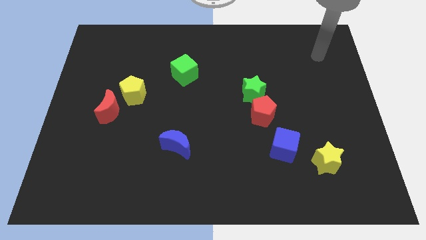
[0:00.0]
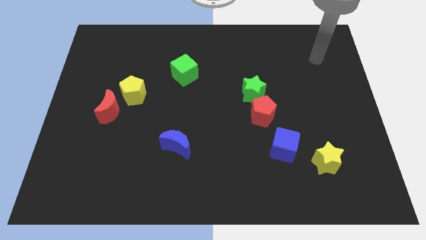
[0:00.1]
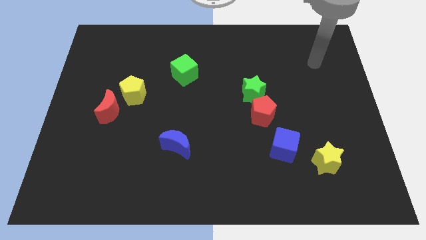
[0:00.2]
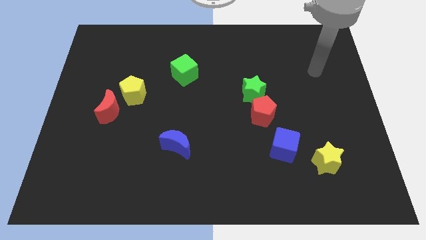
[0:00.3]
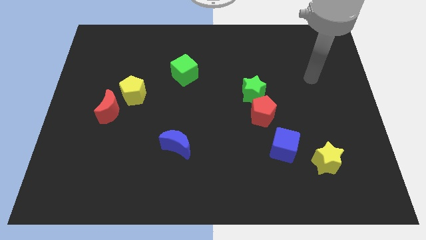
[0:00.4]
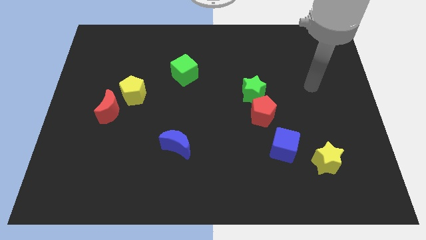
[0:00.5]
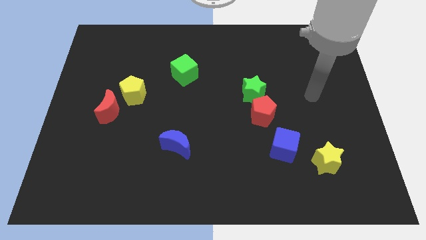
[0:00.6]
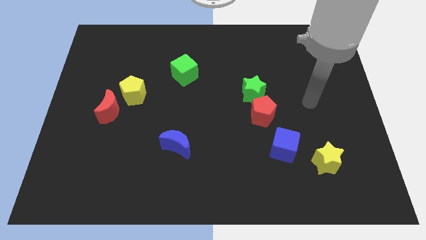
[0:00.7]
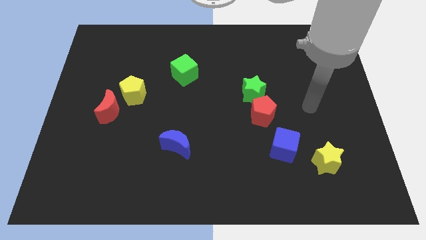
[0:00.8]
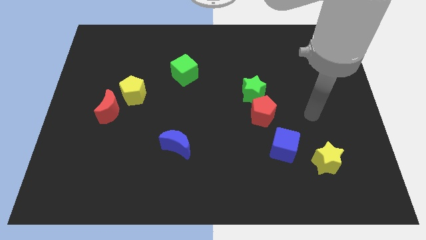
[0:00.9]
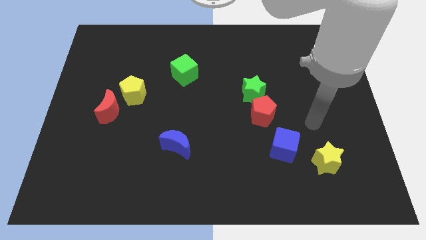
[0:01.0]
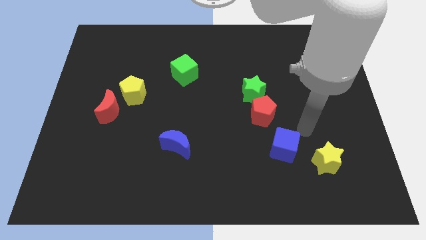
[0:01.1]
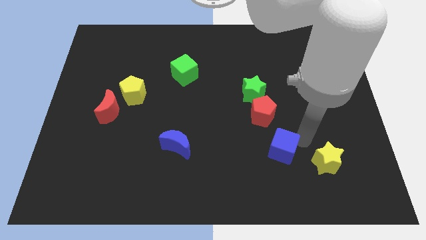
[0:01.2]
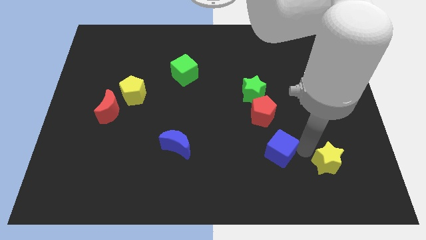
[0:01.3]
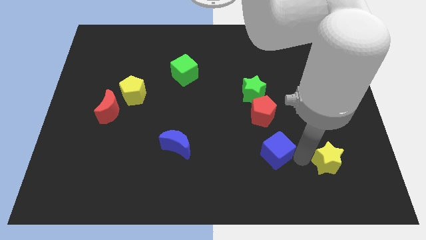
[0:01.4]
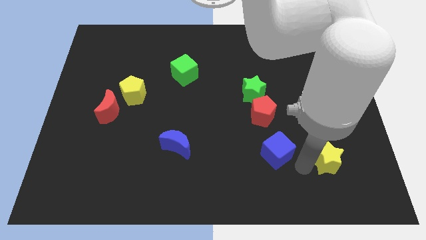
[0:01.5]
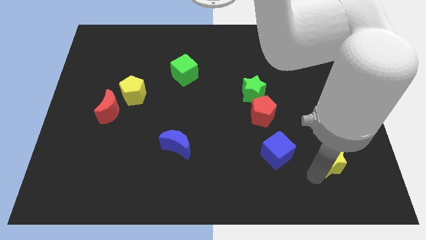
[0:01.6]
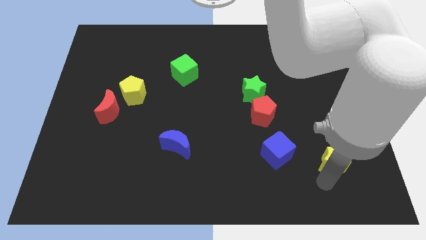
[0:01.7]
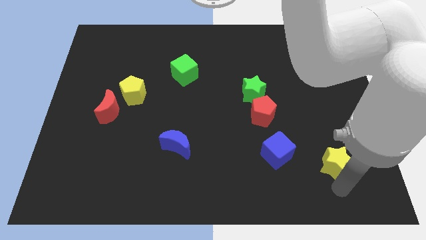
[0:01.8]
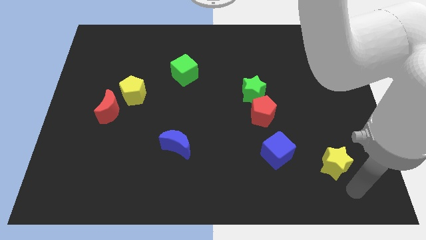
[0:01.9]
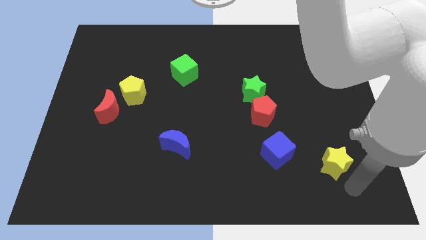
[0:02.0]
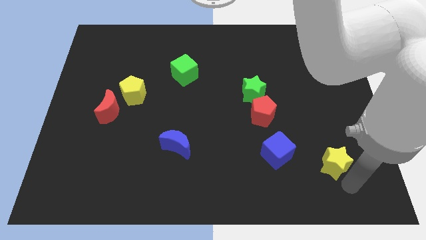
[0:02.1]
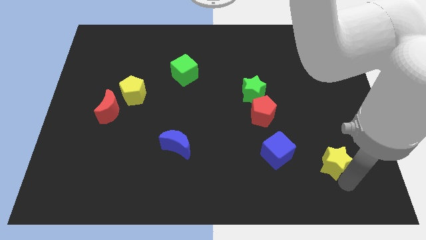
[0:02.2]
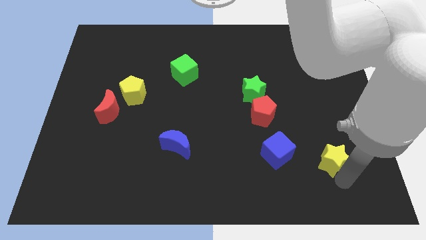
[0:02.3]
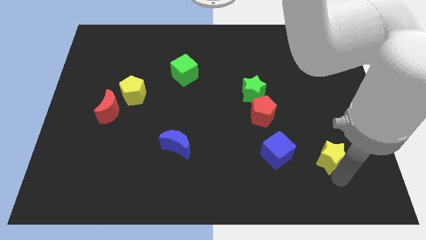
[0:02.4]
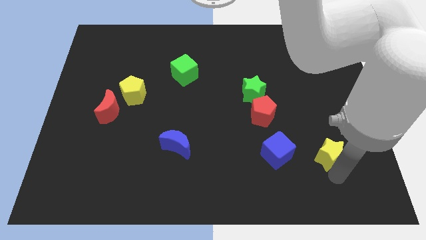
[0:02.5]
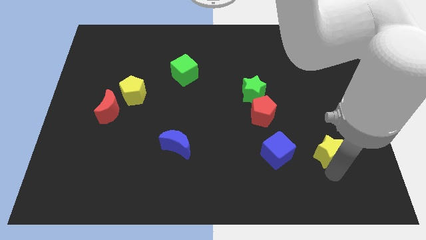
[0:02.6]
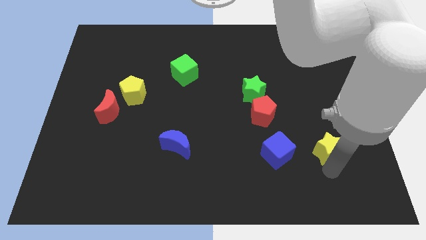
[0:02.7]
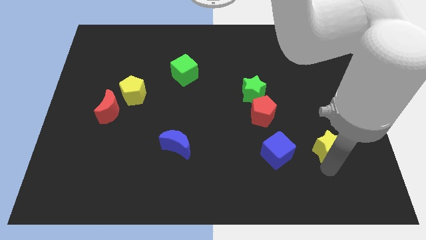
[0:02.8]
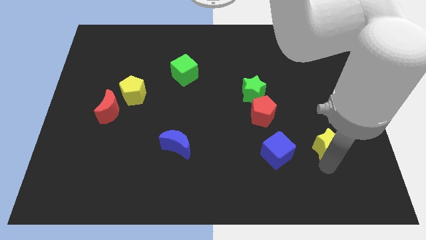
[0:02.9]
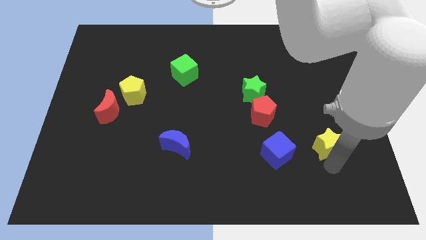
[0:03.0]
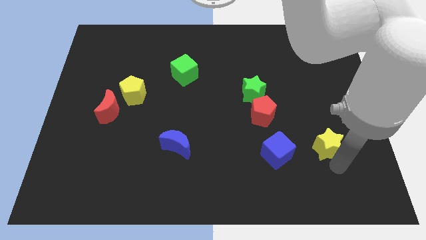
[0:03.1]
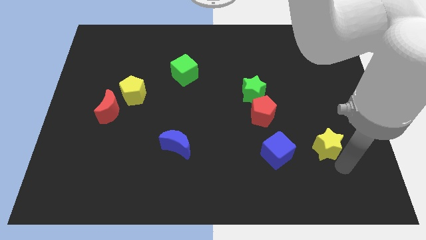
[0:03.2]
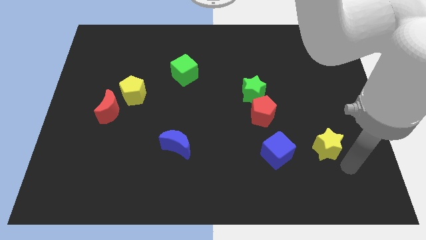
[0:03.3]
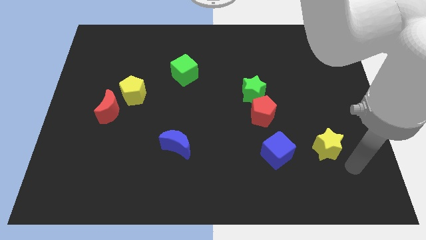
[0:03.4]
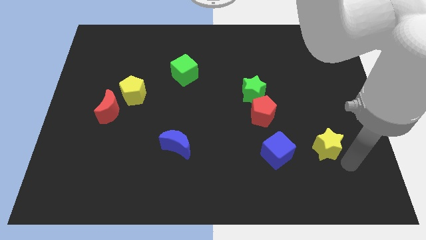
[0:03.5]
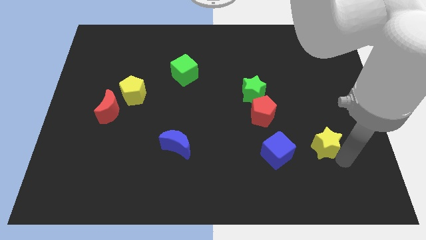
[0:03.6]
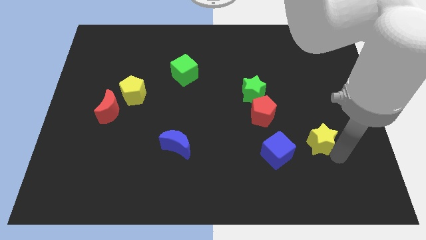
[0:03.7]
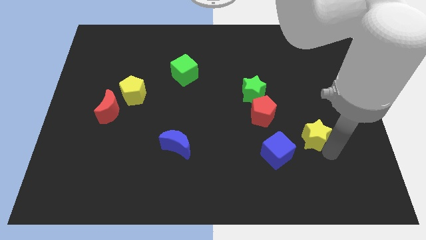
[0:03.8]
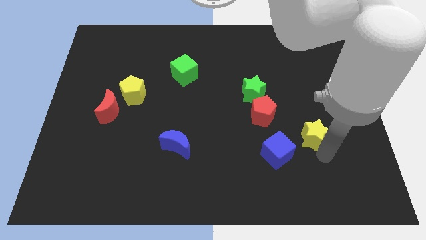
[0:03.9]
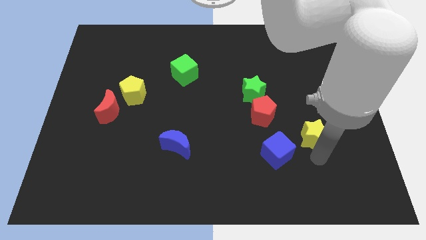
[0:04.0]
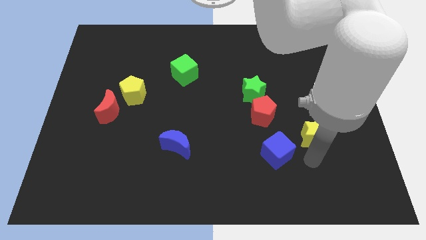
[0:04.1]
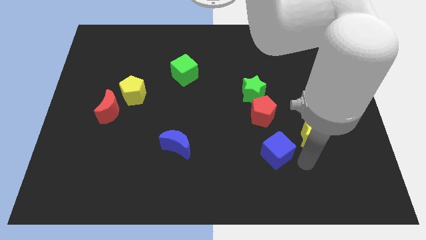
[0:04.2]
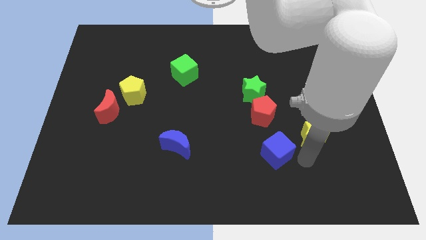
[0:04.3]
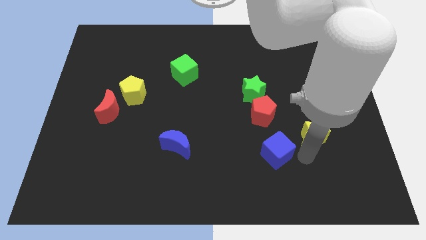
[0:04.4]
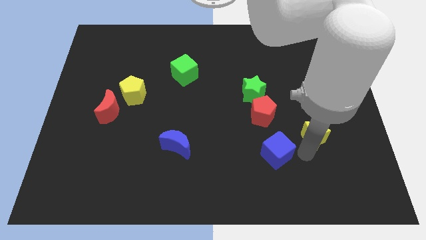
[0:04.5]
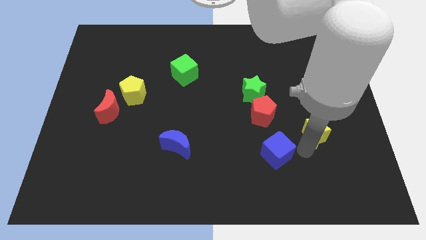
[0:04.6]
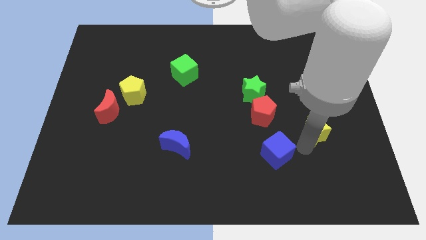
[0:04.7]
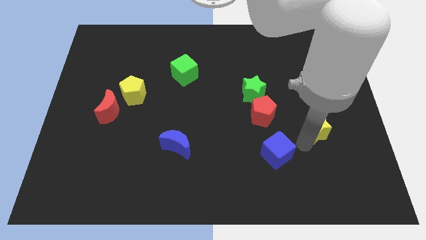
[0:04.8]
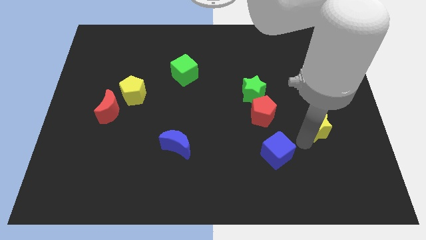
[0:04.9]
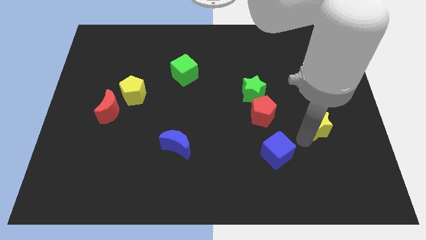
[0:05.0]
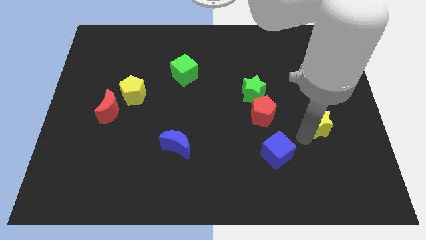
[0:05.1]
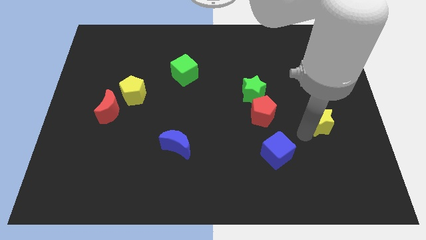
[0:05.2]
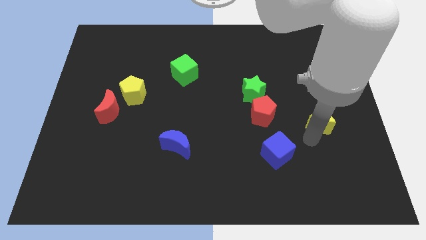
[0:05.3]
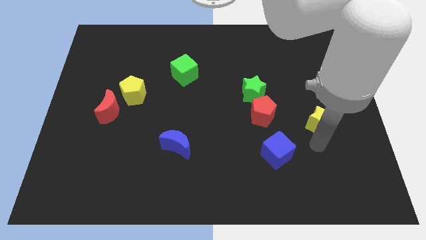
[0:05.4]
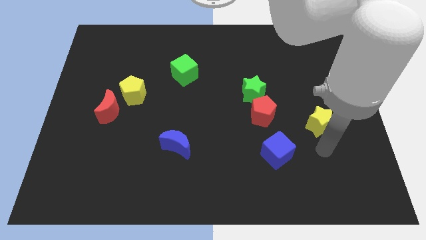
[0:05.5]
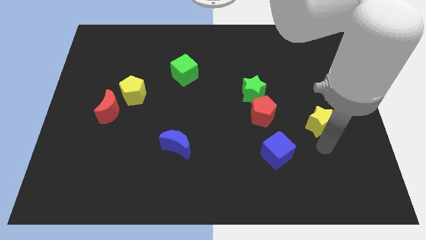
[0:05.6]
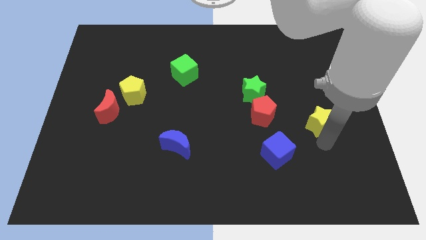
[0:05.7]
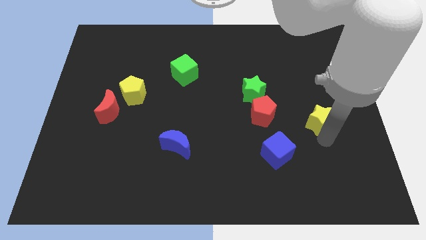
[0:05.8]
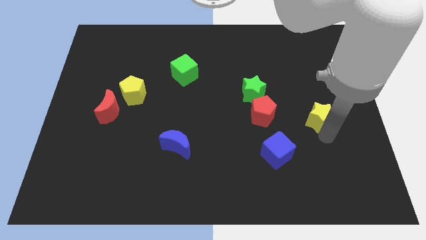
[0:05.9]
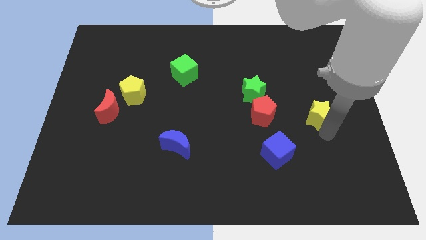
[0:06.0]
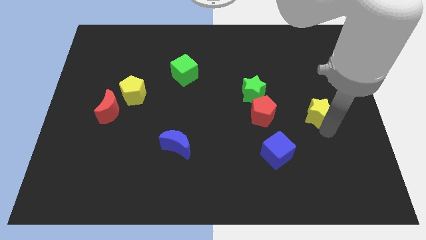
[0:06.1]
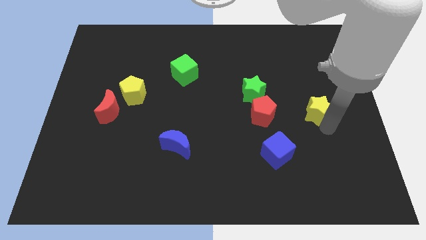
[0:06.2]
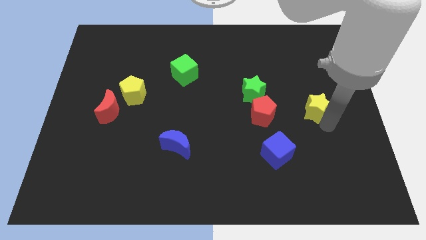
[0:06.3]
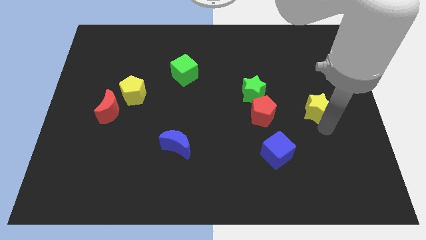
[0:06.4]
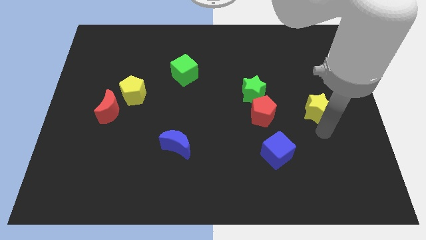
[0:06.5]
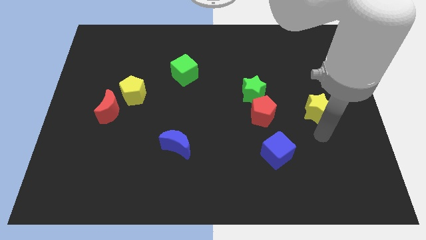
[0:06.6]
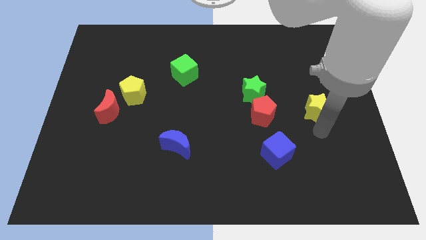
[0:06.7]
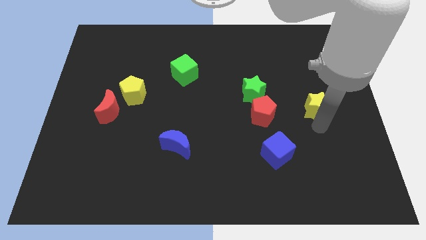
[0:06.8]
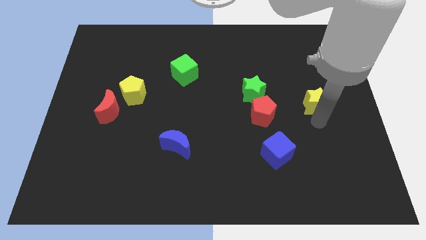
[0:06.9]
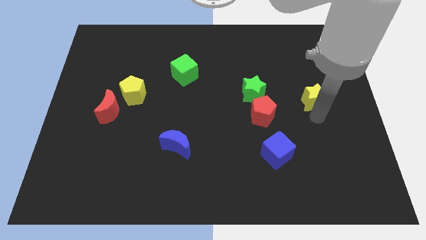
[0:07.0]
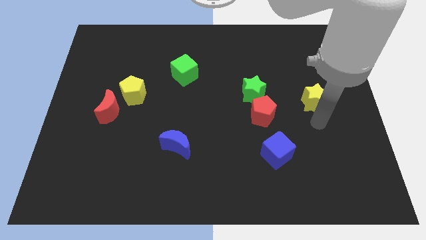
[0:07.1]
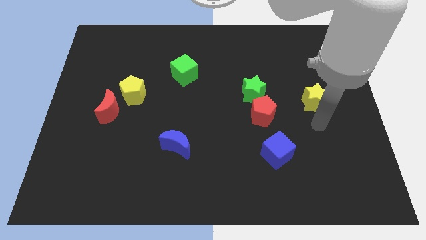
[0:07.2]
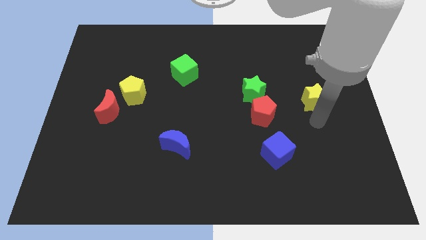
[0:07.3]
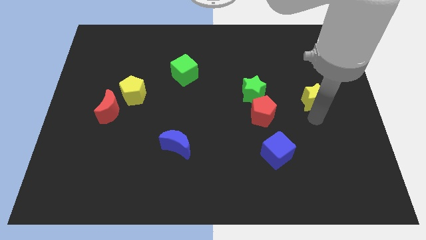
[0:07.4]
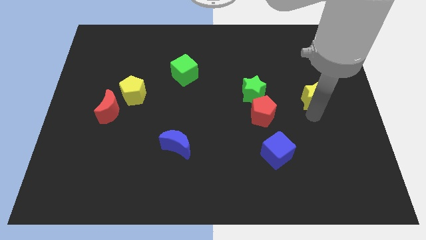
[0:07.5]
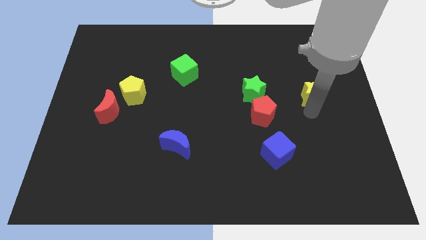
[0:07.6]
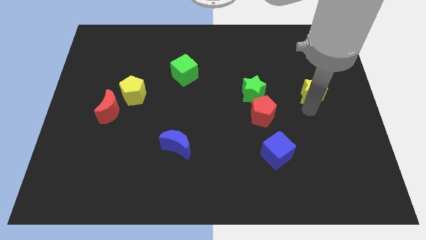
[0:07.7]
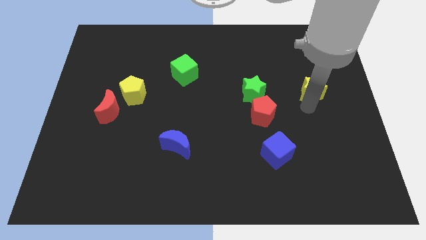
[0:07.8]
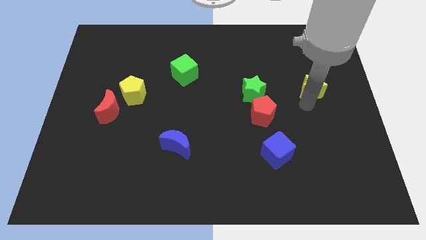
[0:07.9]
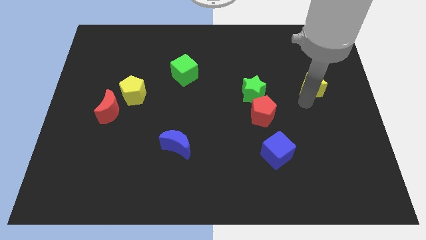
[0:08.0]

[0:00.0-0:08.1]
push the yellow star upwards

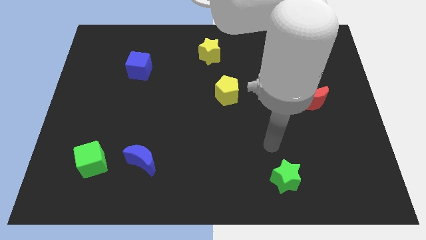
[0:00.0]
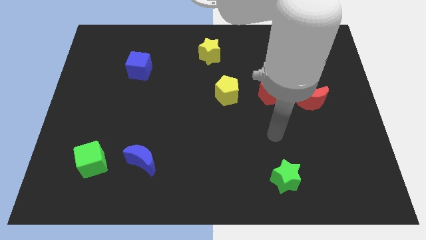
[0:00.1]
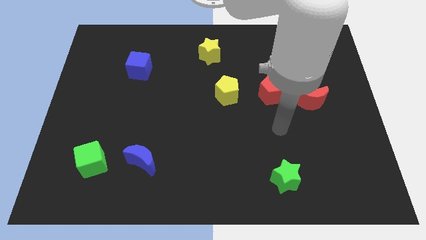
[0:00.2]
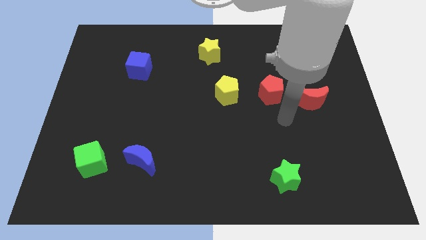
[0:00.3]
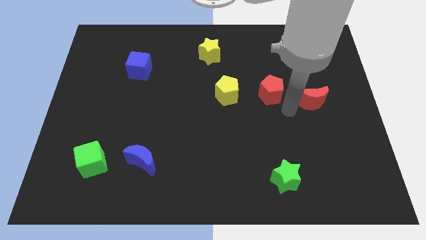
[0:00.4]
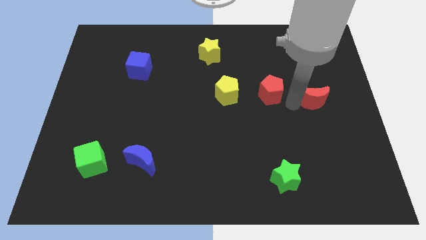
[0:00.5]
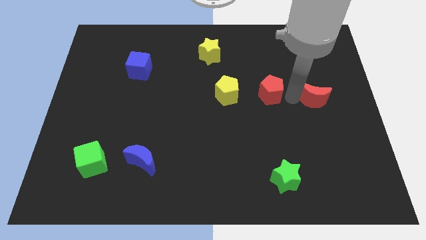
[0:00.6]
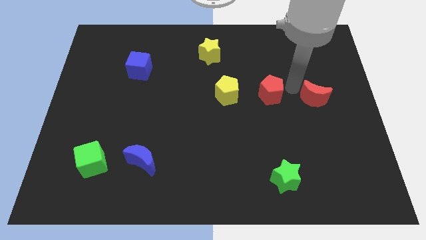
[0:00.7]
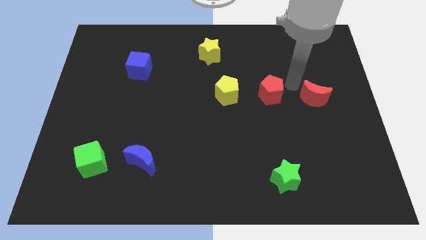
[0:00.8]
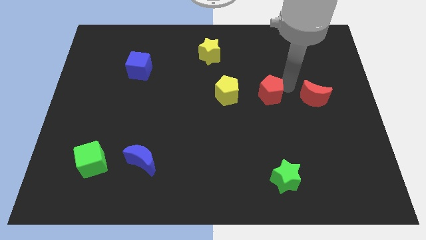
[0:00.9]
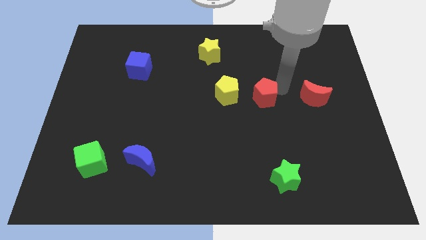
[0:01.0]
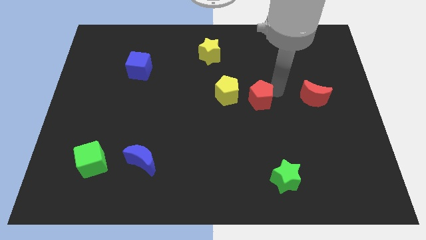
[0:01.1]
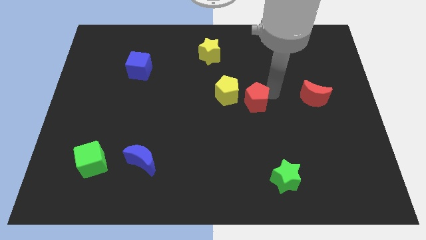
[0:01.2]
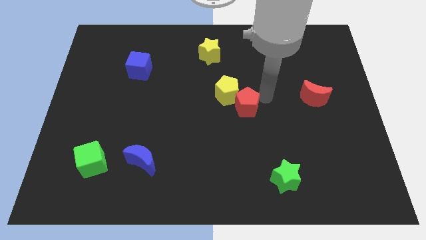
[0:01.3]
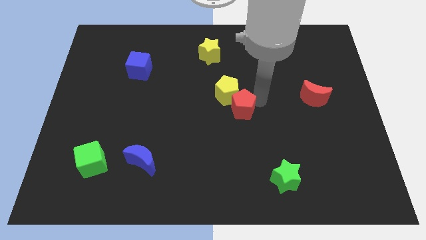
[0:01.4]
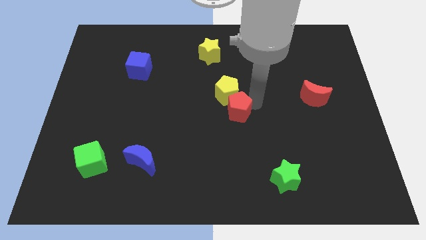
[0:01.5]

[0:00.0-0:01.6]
slightly slide the red pentagon left
